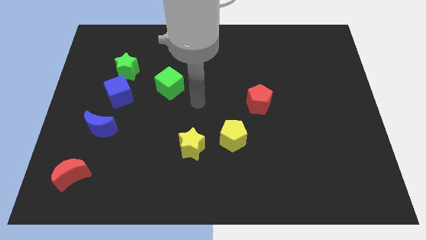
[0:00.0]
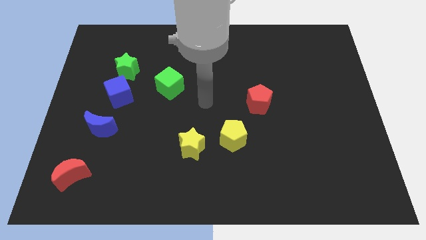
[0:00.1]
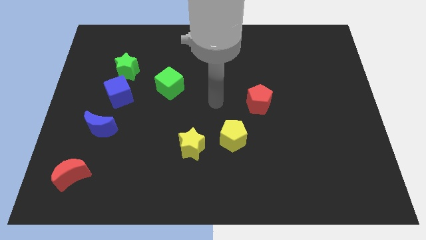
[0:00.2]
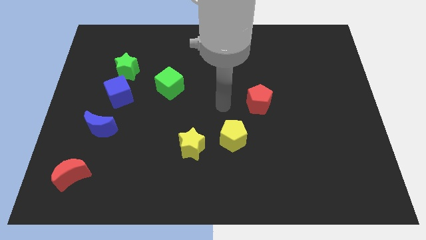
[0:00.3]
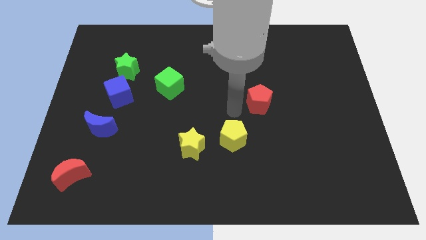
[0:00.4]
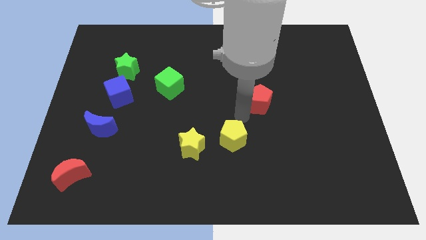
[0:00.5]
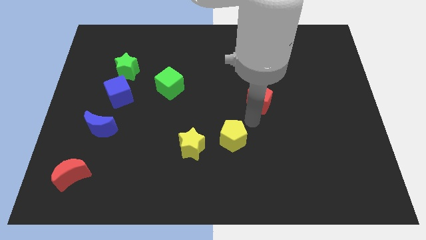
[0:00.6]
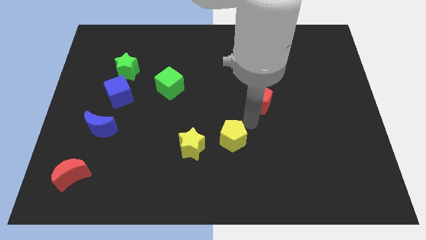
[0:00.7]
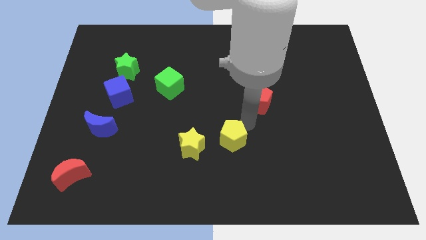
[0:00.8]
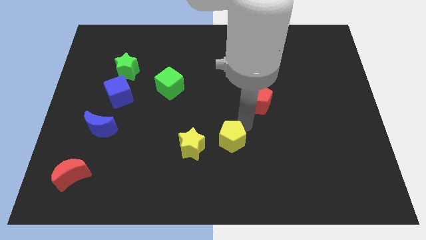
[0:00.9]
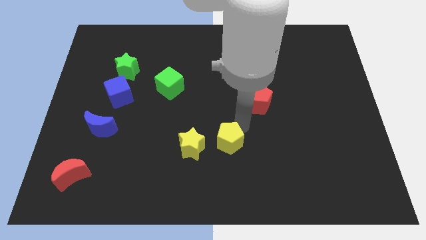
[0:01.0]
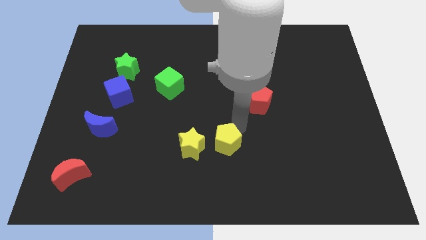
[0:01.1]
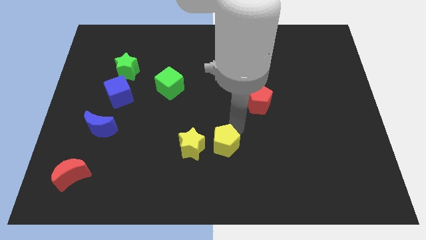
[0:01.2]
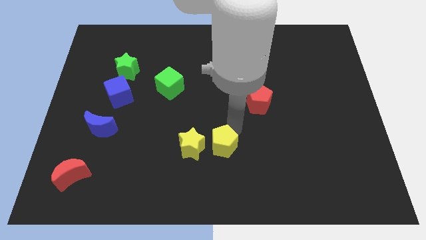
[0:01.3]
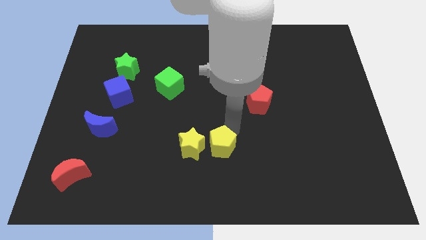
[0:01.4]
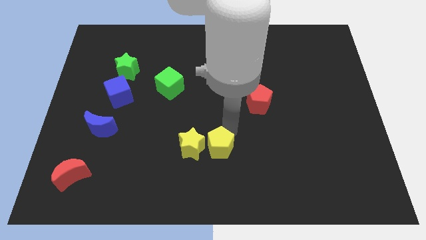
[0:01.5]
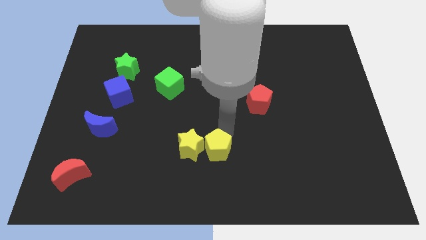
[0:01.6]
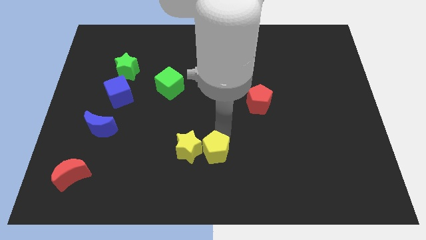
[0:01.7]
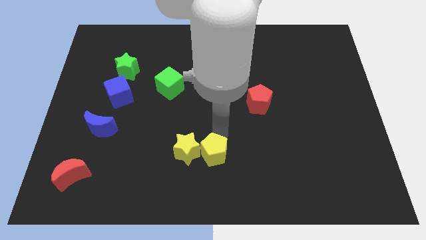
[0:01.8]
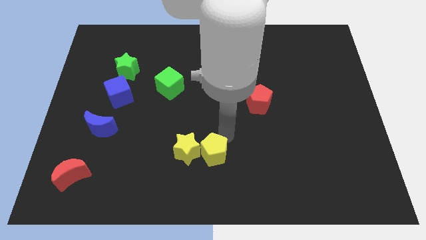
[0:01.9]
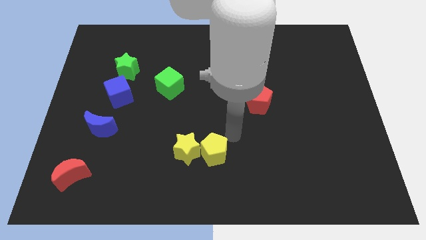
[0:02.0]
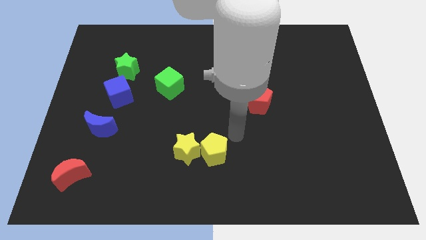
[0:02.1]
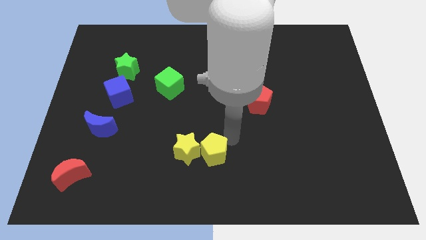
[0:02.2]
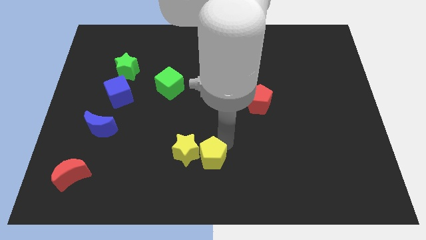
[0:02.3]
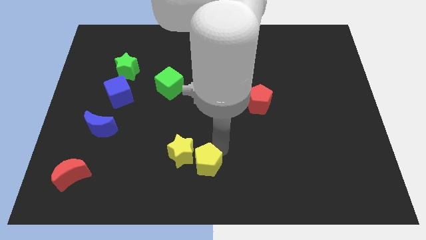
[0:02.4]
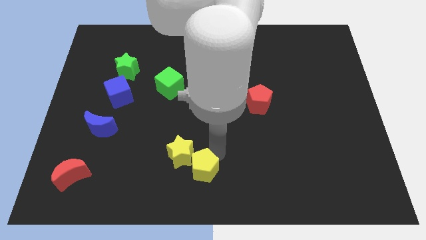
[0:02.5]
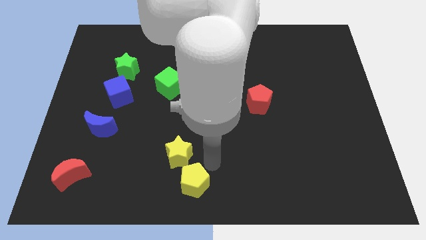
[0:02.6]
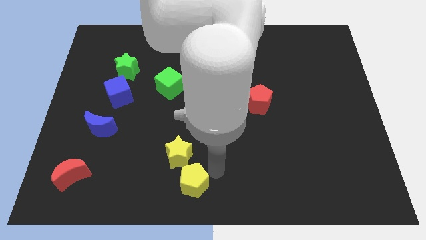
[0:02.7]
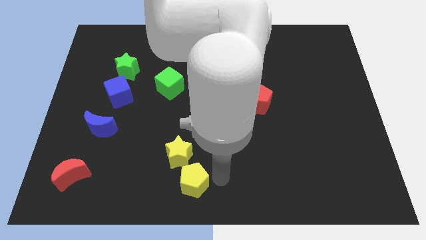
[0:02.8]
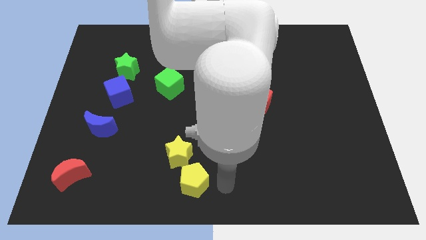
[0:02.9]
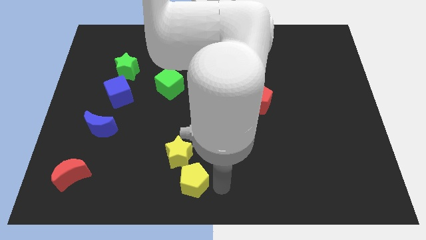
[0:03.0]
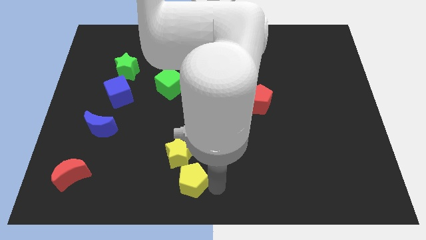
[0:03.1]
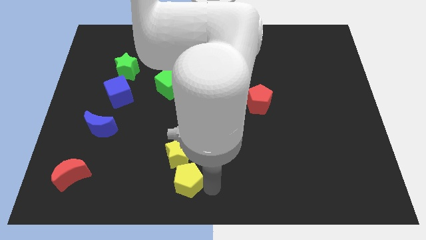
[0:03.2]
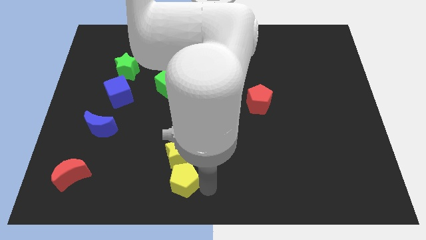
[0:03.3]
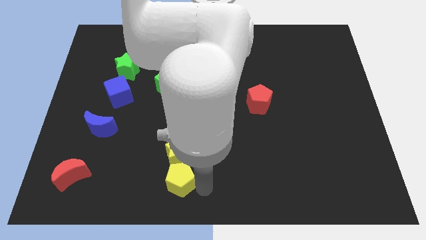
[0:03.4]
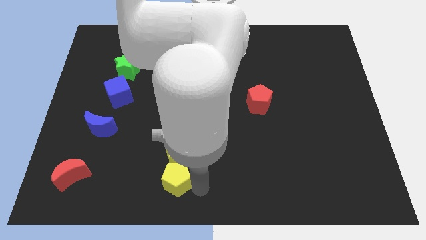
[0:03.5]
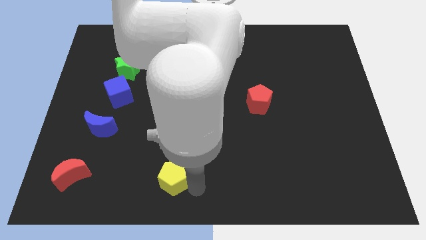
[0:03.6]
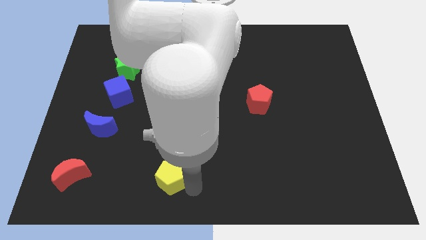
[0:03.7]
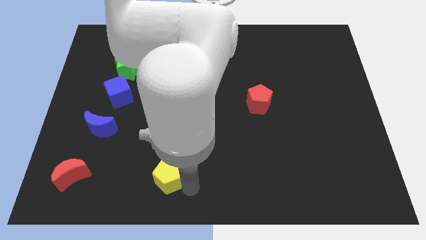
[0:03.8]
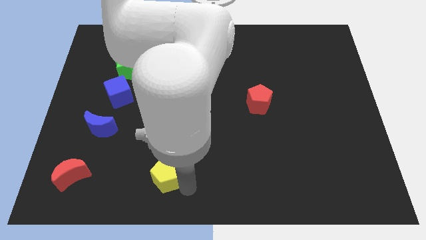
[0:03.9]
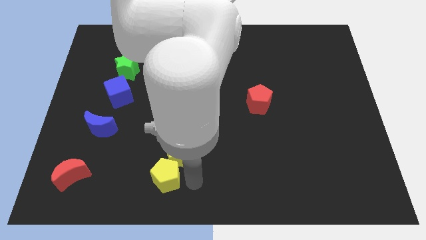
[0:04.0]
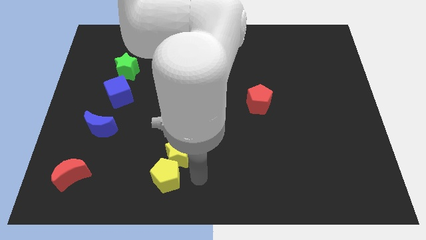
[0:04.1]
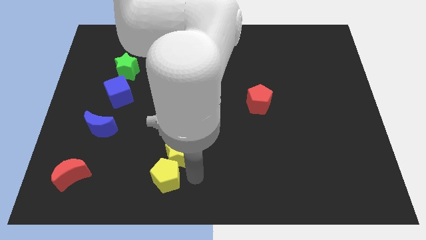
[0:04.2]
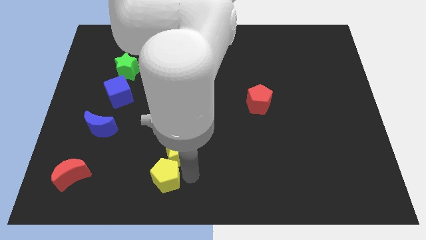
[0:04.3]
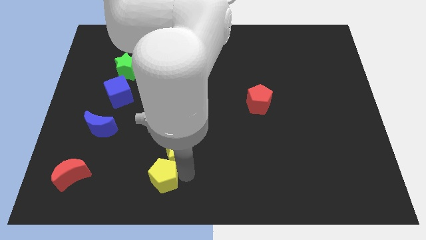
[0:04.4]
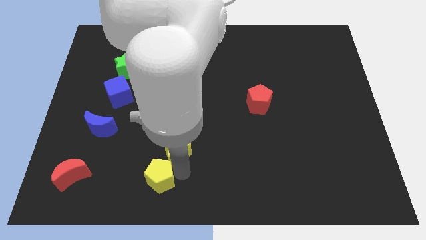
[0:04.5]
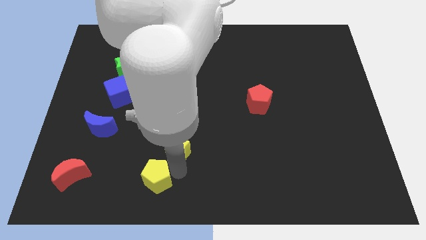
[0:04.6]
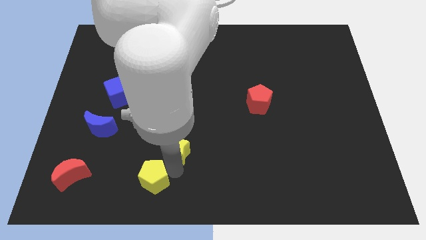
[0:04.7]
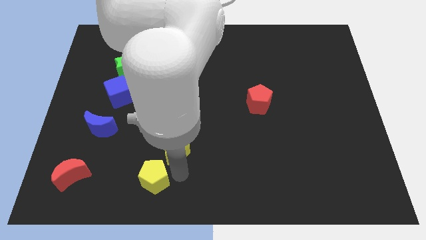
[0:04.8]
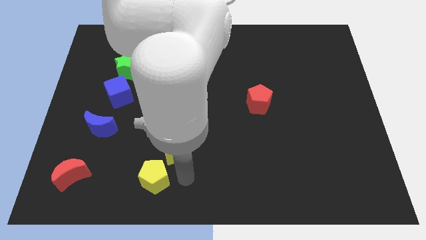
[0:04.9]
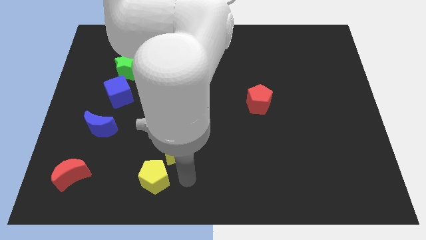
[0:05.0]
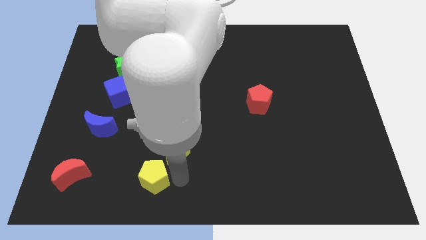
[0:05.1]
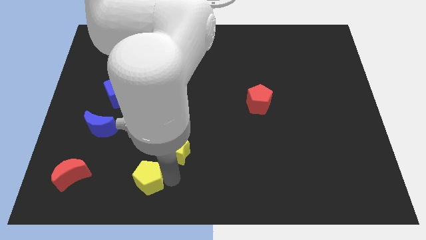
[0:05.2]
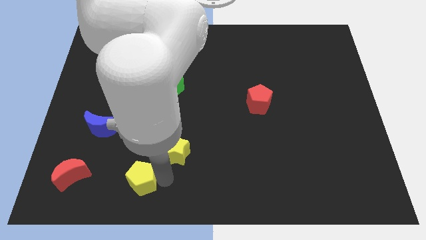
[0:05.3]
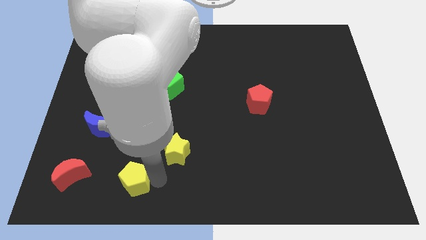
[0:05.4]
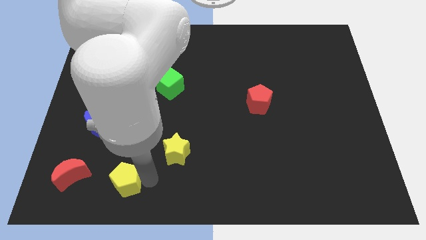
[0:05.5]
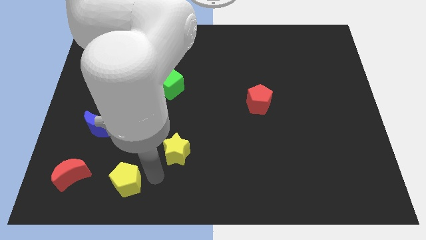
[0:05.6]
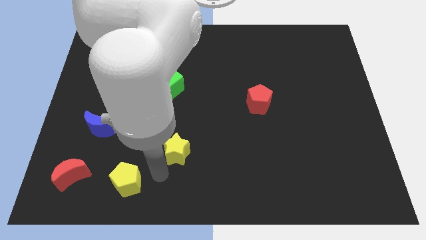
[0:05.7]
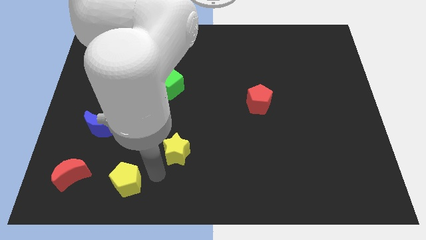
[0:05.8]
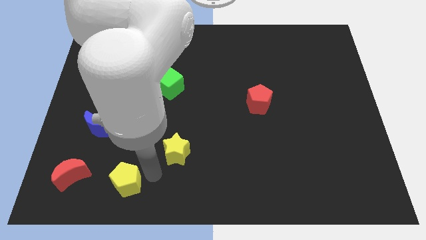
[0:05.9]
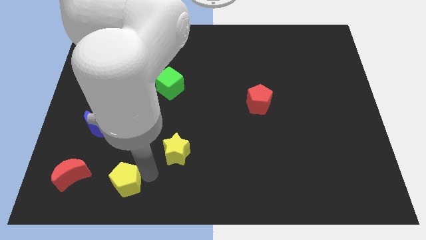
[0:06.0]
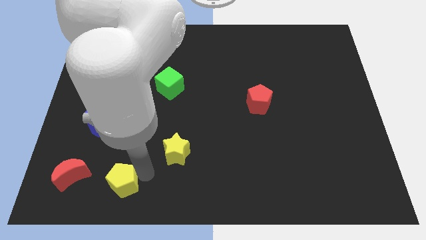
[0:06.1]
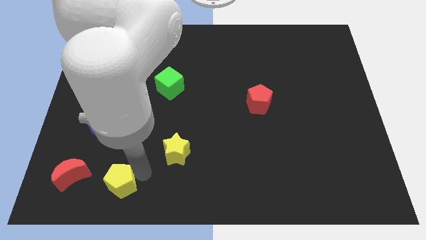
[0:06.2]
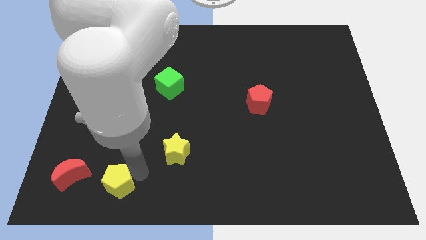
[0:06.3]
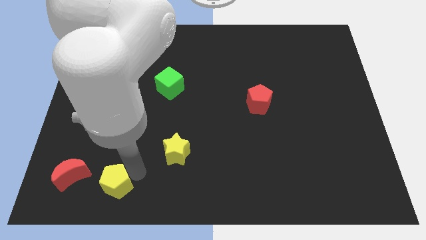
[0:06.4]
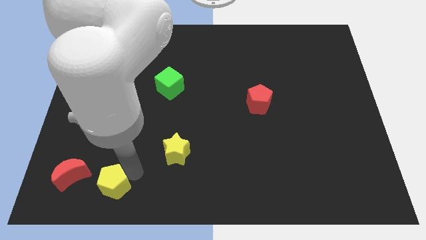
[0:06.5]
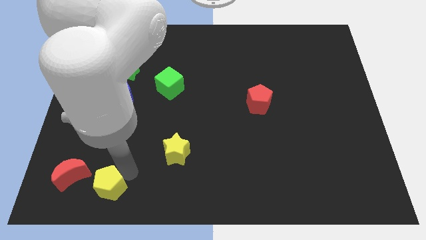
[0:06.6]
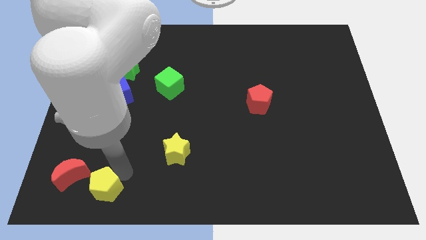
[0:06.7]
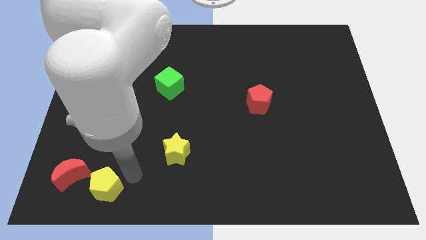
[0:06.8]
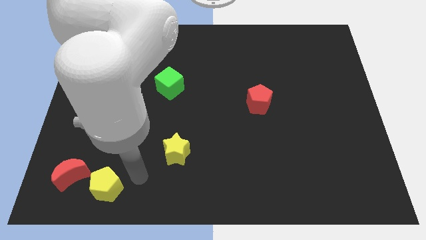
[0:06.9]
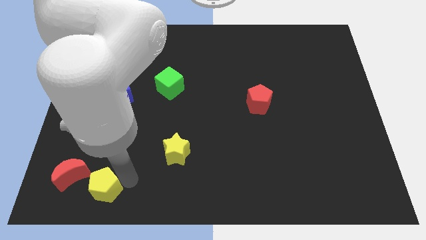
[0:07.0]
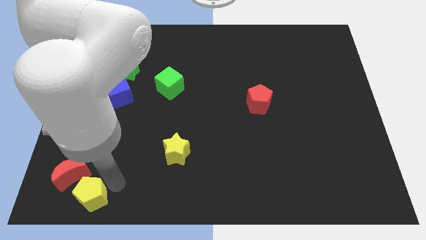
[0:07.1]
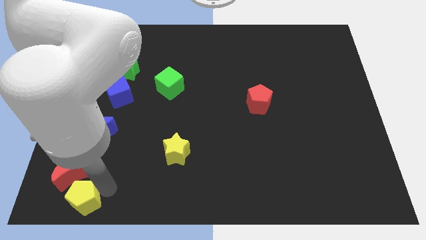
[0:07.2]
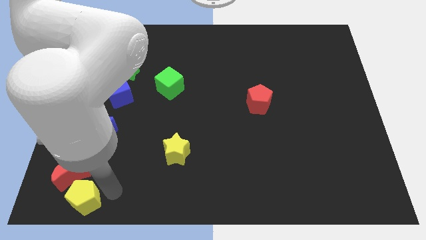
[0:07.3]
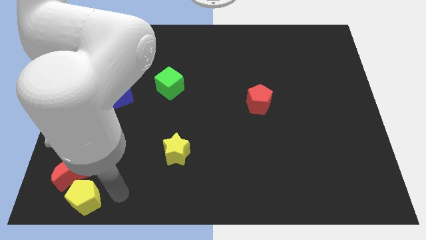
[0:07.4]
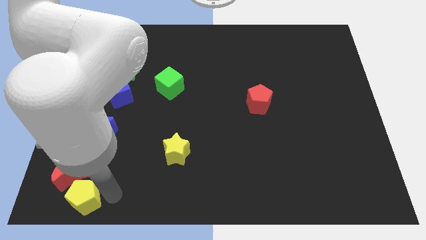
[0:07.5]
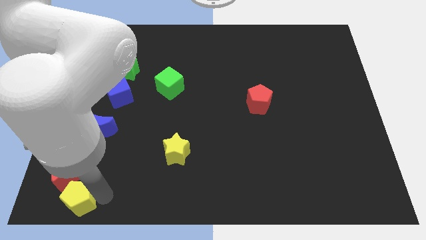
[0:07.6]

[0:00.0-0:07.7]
slide the yellow pentagon to the bottom left
